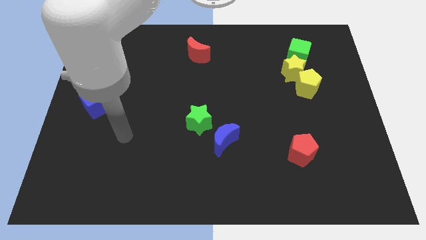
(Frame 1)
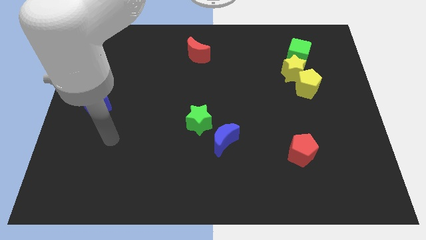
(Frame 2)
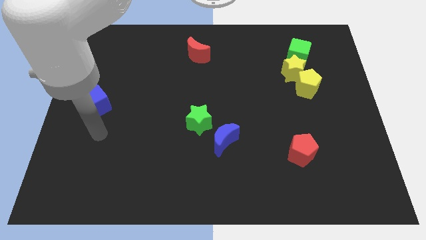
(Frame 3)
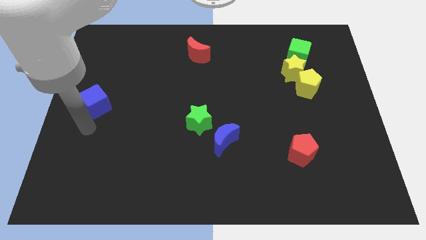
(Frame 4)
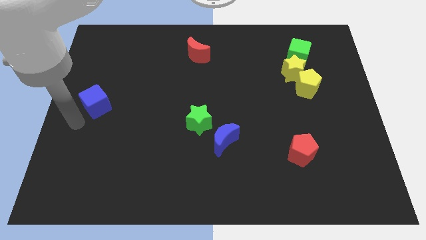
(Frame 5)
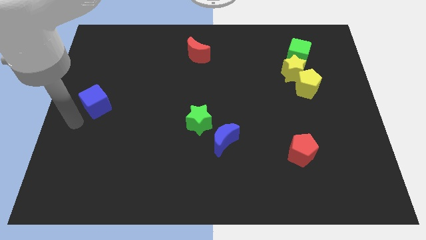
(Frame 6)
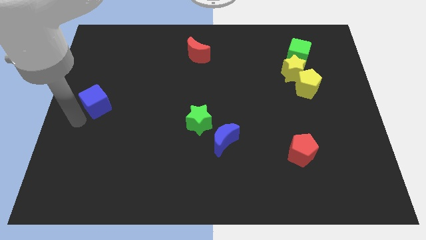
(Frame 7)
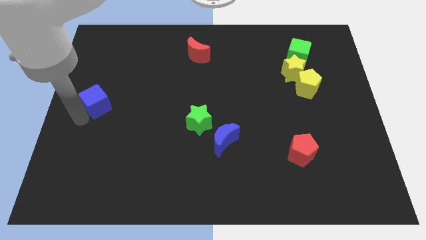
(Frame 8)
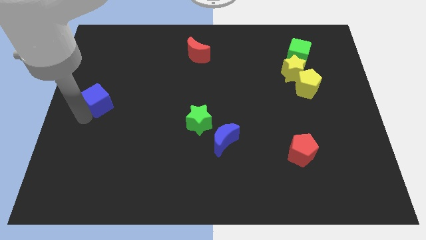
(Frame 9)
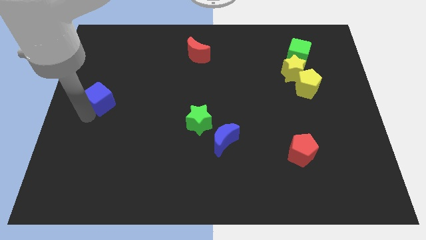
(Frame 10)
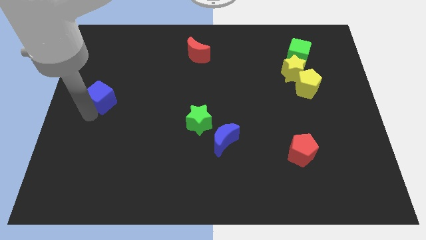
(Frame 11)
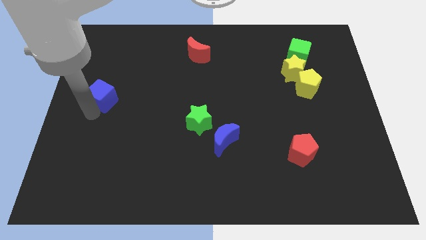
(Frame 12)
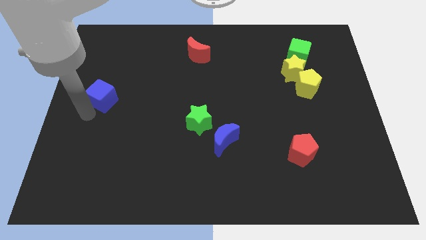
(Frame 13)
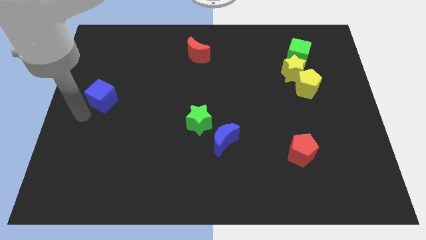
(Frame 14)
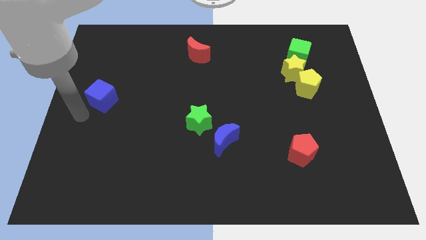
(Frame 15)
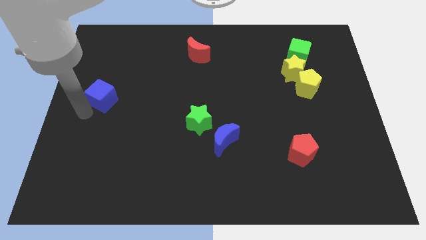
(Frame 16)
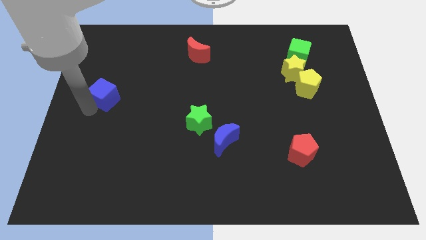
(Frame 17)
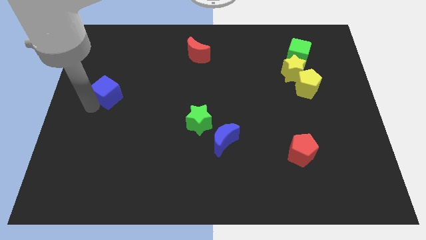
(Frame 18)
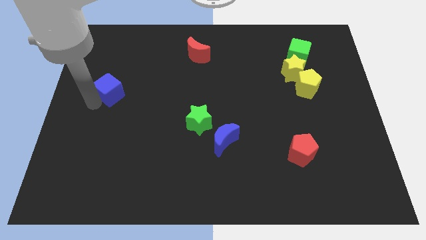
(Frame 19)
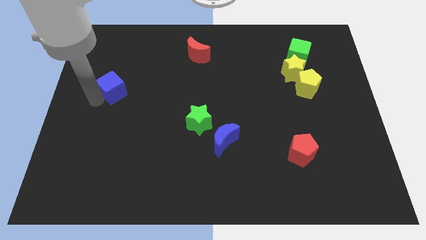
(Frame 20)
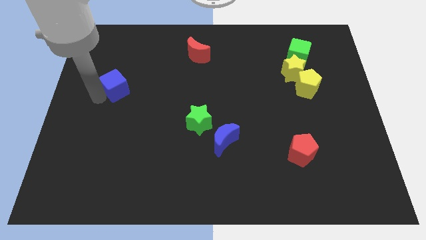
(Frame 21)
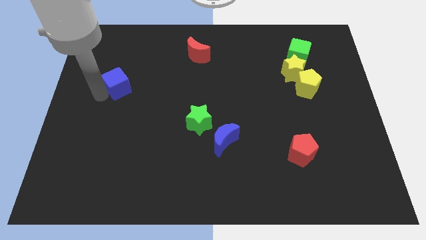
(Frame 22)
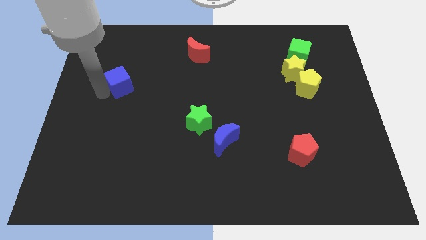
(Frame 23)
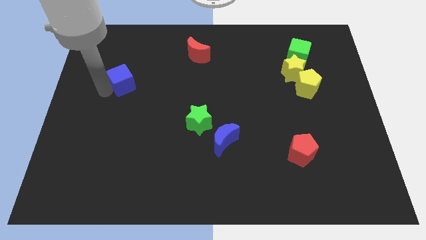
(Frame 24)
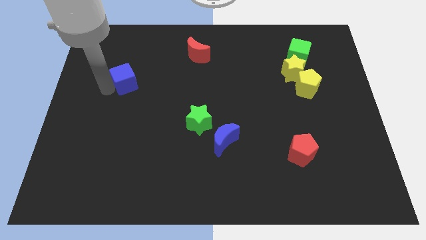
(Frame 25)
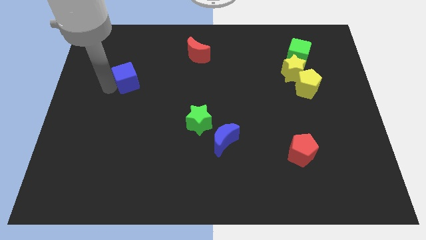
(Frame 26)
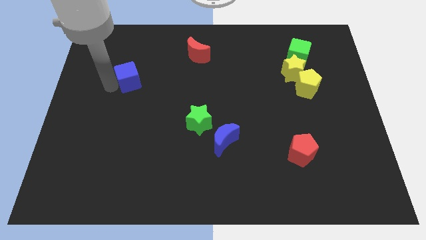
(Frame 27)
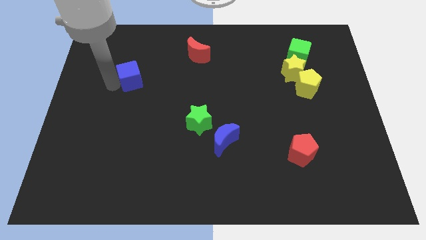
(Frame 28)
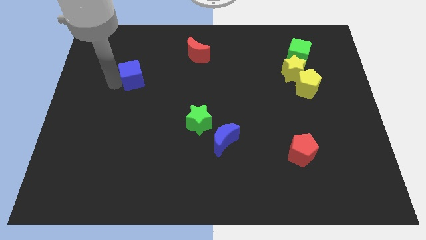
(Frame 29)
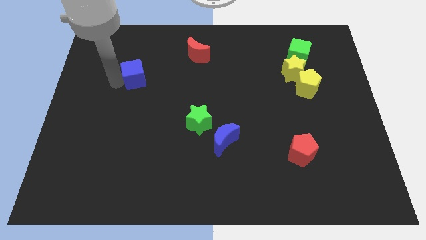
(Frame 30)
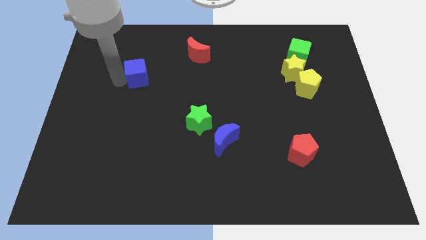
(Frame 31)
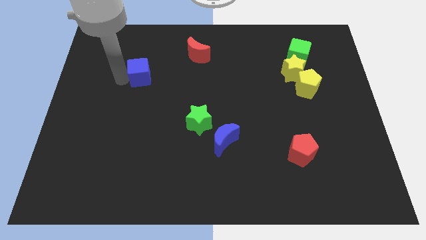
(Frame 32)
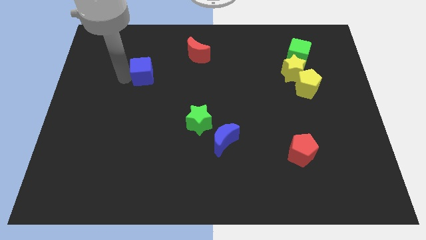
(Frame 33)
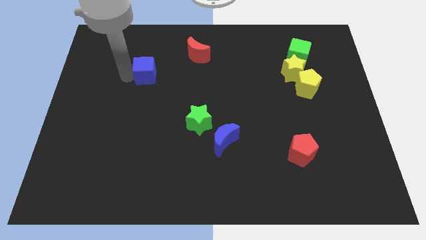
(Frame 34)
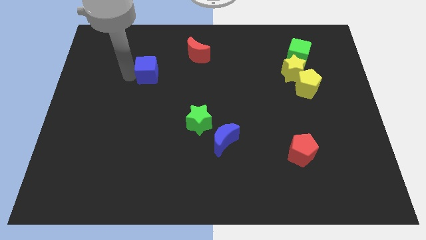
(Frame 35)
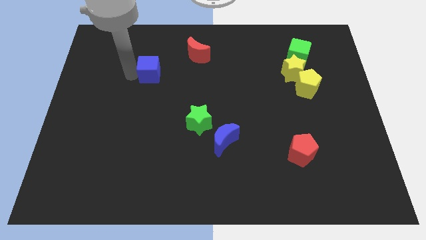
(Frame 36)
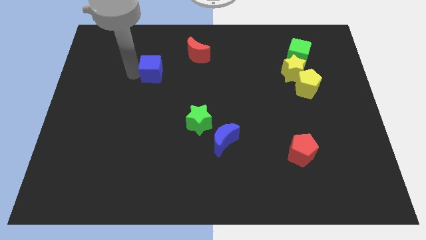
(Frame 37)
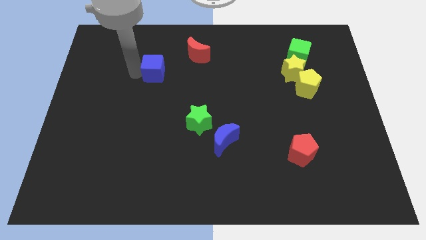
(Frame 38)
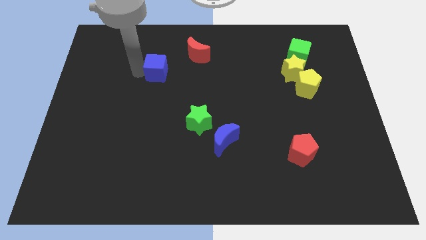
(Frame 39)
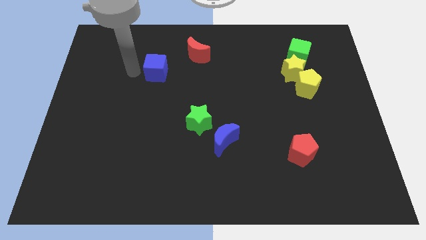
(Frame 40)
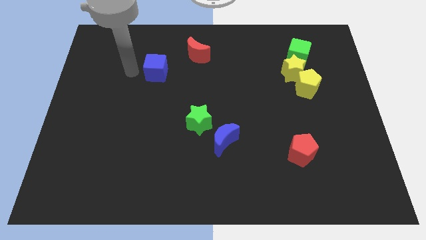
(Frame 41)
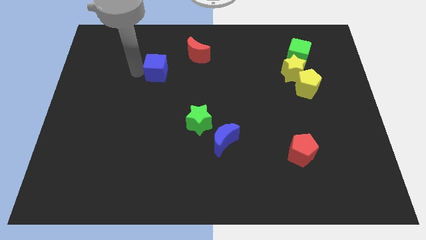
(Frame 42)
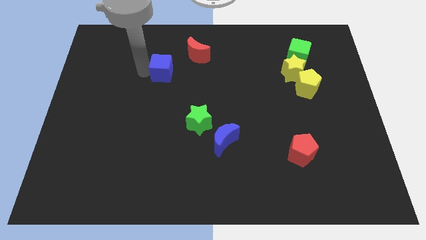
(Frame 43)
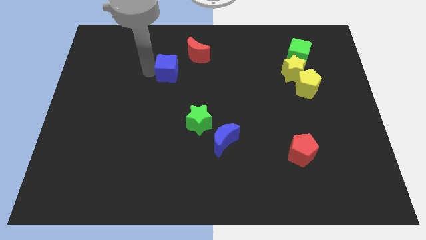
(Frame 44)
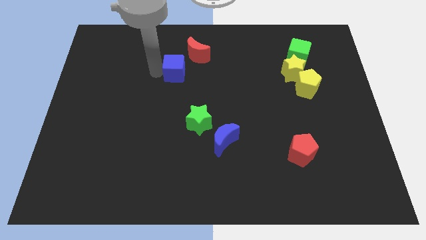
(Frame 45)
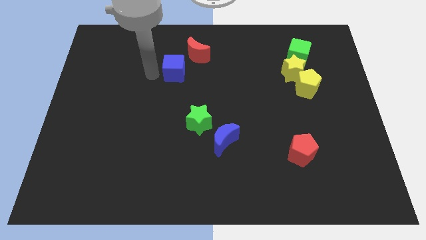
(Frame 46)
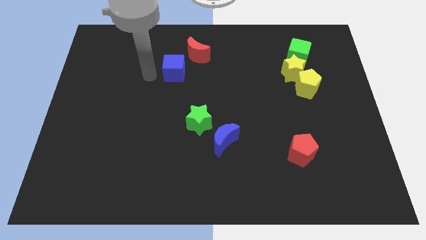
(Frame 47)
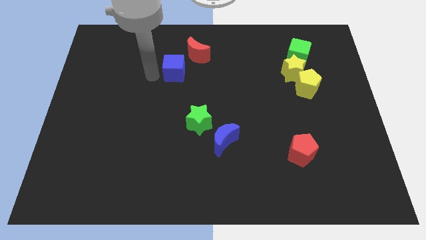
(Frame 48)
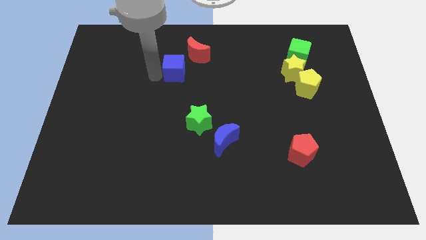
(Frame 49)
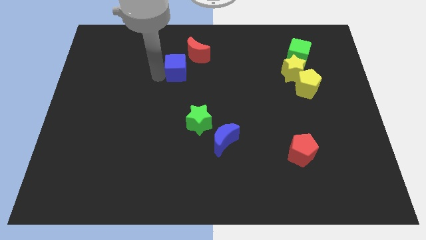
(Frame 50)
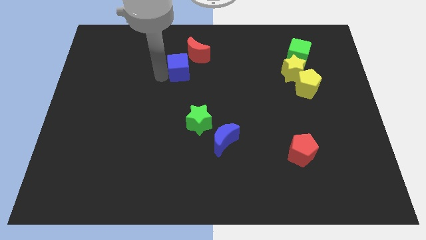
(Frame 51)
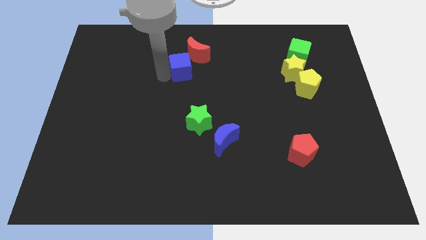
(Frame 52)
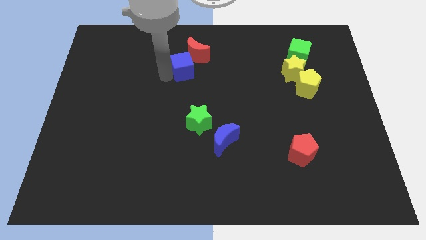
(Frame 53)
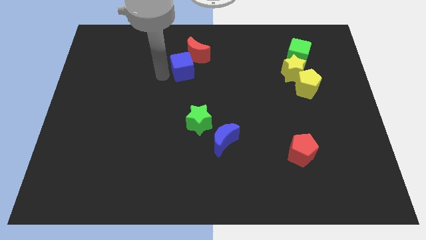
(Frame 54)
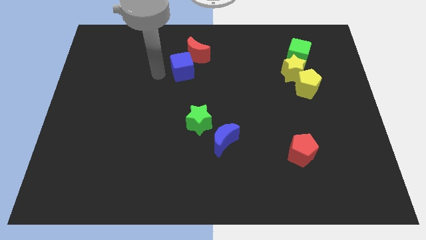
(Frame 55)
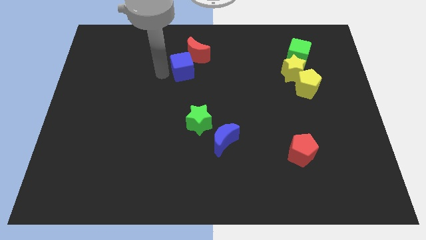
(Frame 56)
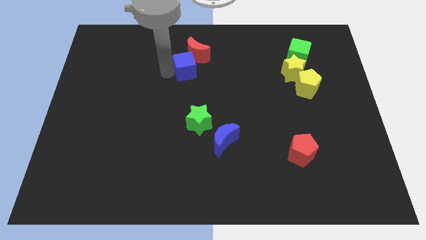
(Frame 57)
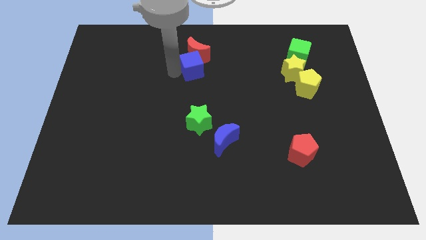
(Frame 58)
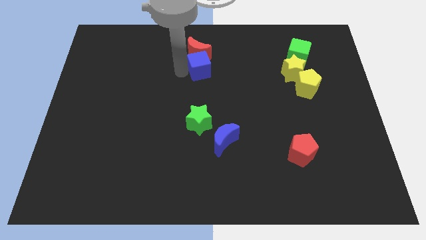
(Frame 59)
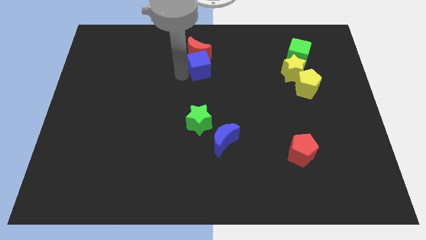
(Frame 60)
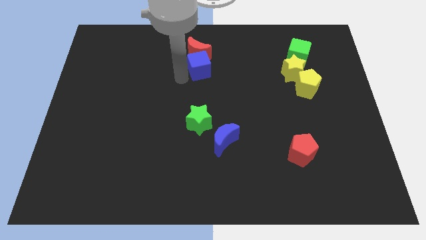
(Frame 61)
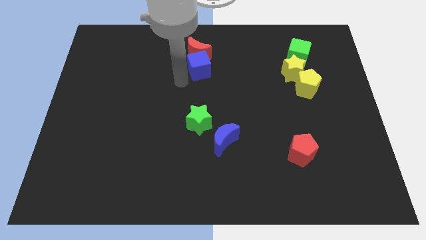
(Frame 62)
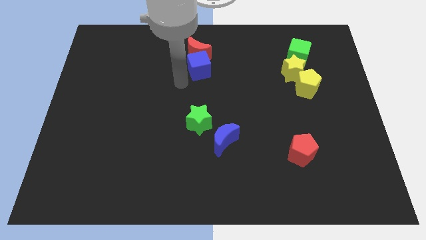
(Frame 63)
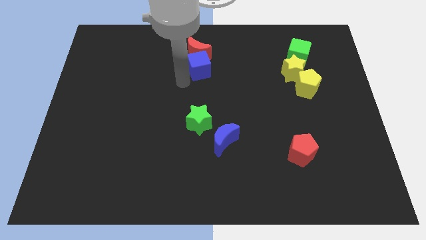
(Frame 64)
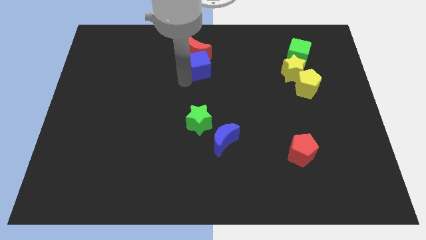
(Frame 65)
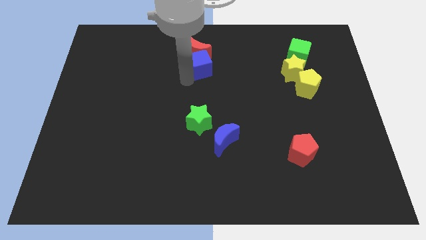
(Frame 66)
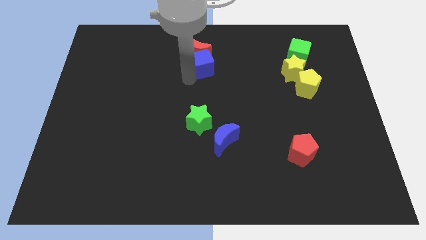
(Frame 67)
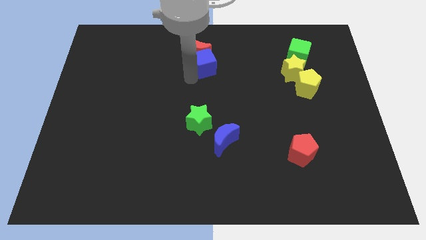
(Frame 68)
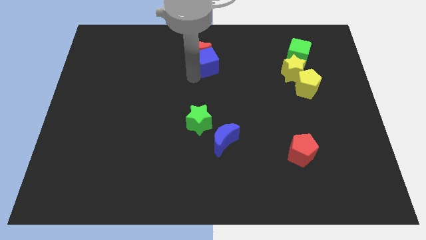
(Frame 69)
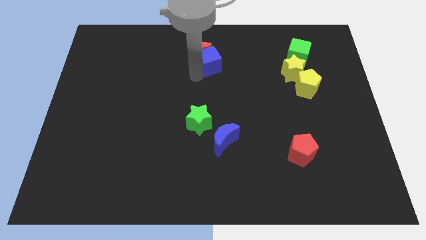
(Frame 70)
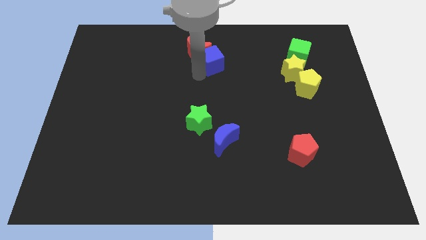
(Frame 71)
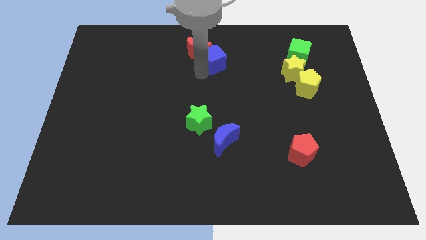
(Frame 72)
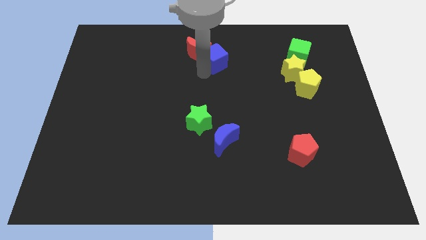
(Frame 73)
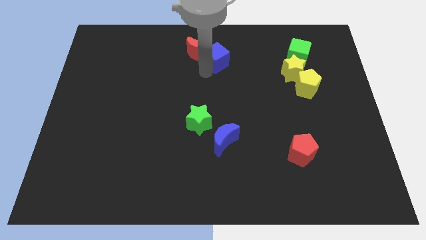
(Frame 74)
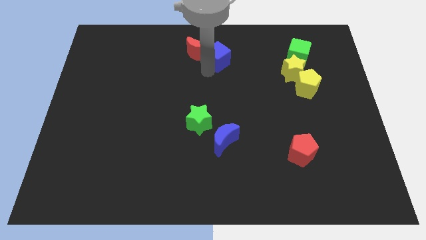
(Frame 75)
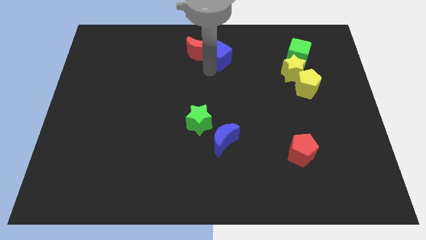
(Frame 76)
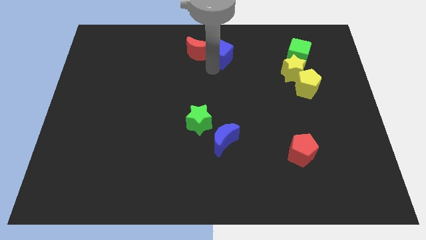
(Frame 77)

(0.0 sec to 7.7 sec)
push the blue cube to the top side
